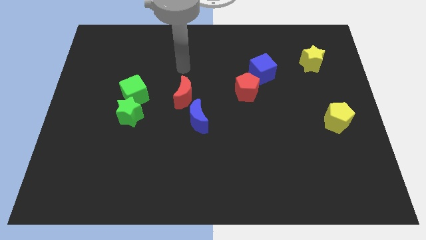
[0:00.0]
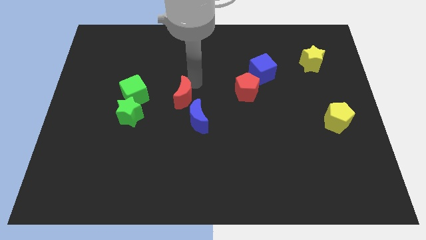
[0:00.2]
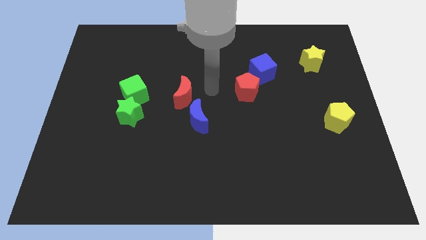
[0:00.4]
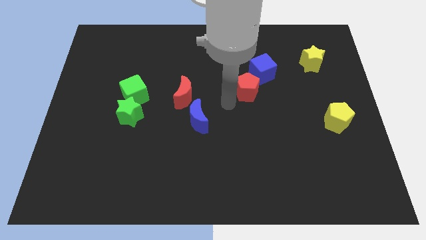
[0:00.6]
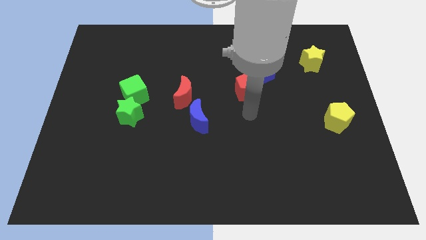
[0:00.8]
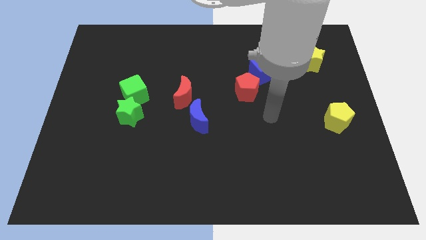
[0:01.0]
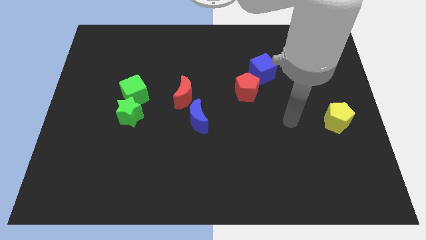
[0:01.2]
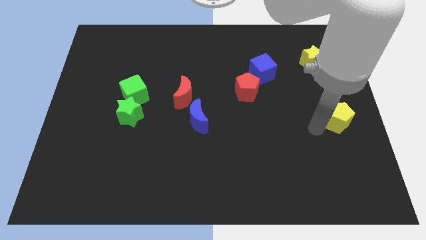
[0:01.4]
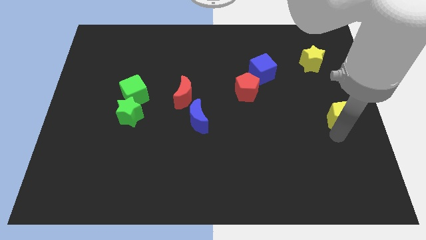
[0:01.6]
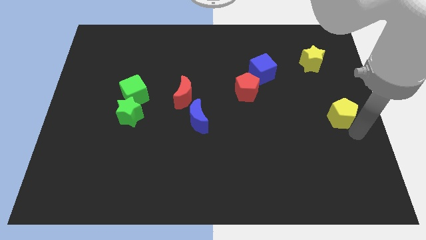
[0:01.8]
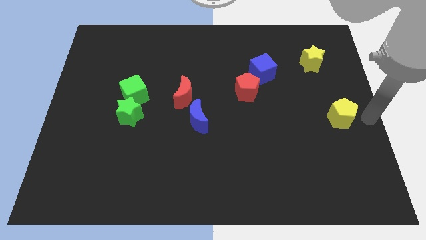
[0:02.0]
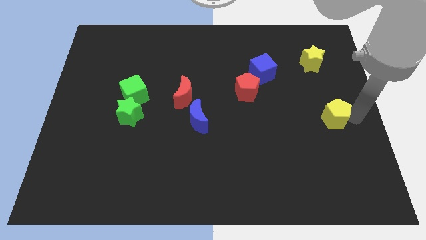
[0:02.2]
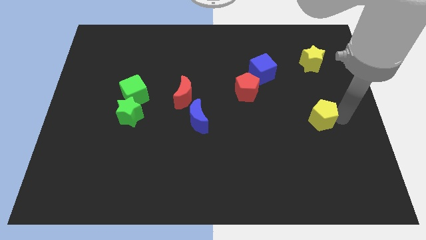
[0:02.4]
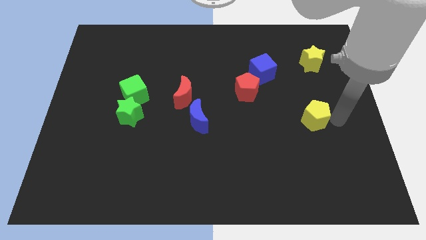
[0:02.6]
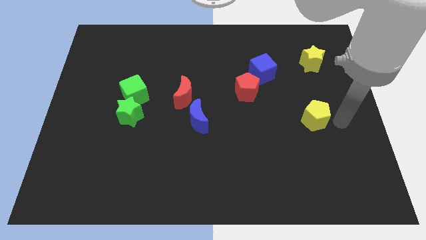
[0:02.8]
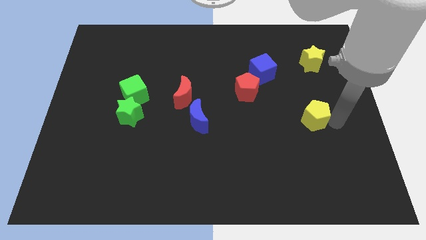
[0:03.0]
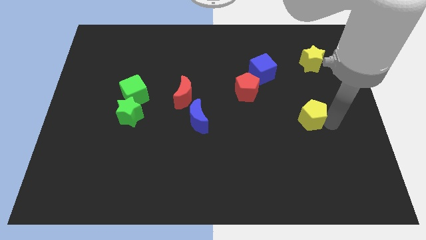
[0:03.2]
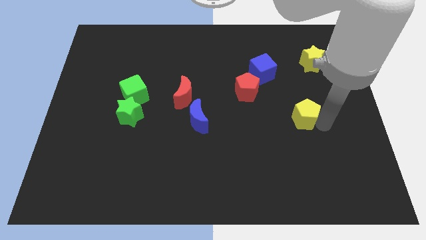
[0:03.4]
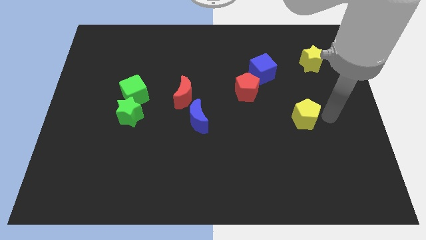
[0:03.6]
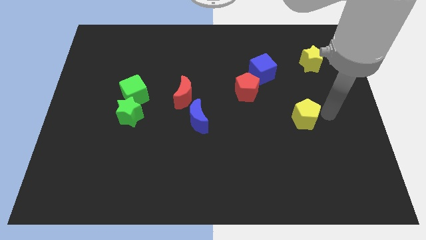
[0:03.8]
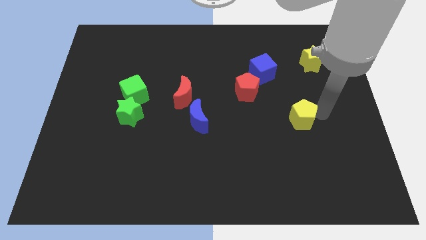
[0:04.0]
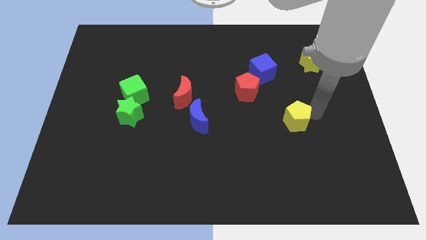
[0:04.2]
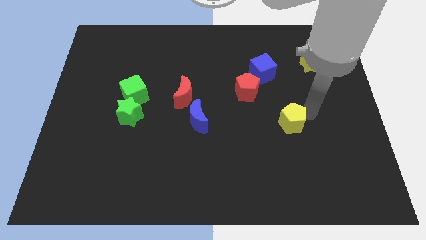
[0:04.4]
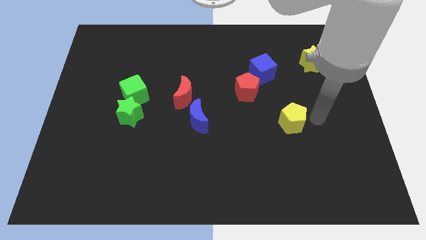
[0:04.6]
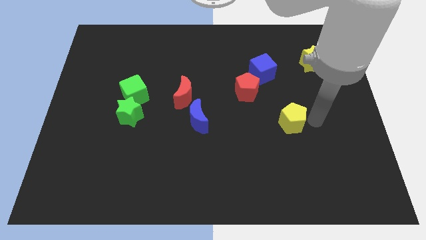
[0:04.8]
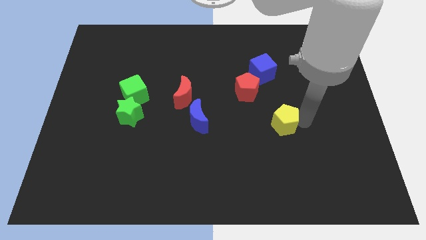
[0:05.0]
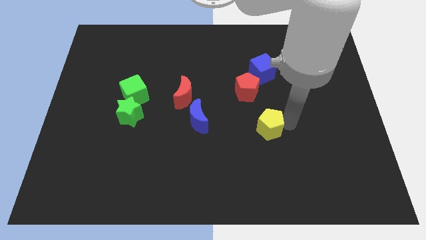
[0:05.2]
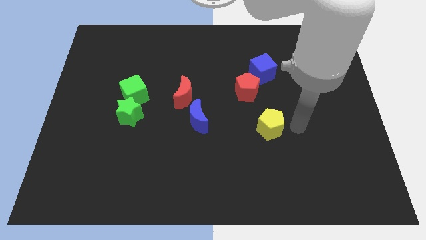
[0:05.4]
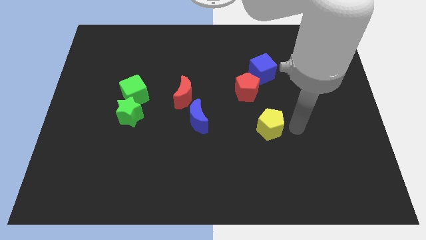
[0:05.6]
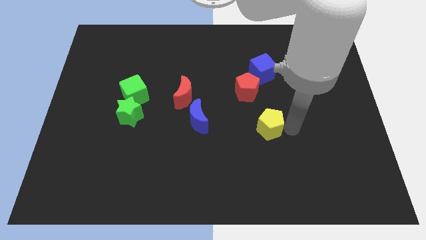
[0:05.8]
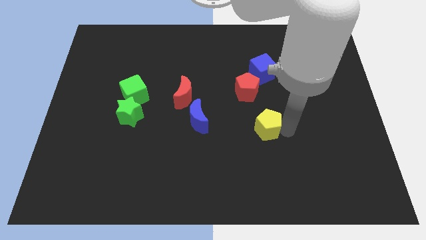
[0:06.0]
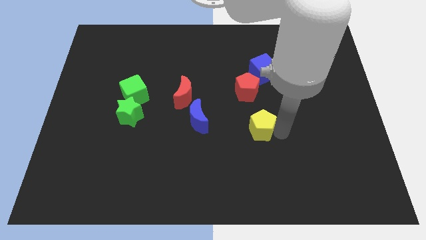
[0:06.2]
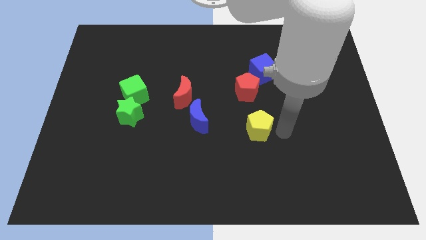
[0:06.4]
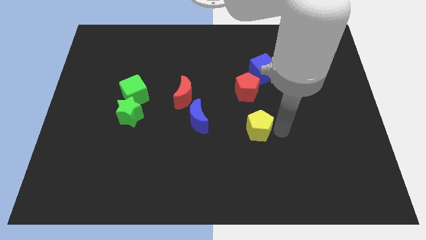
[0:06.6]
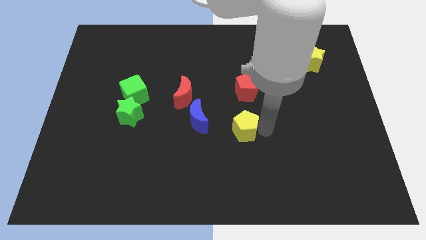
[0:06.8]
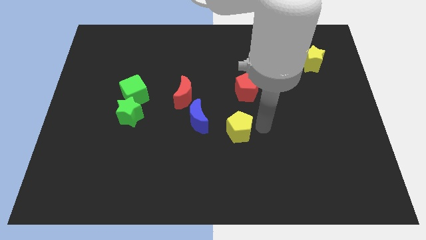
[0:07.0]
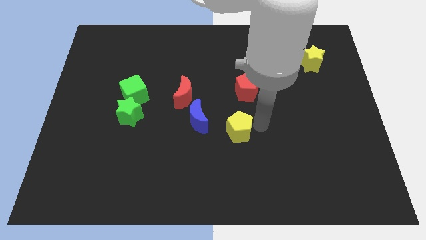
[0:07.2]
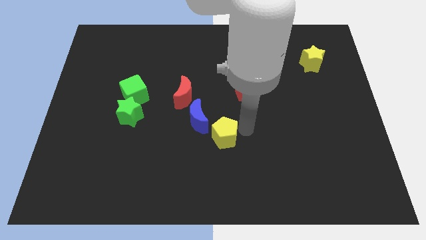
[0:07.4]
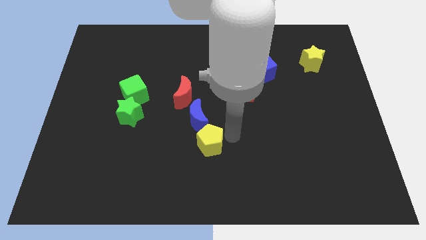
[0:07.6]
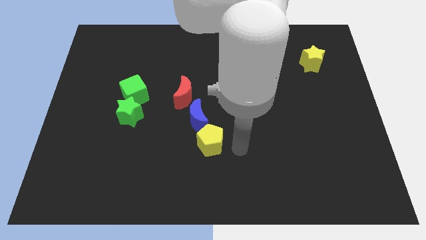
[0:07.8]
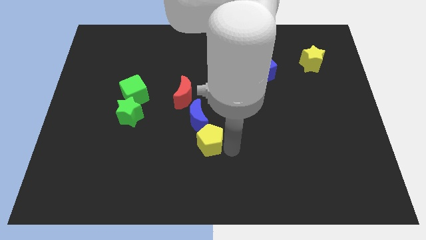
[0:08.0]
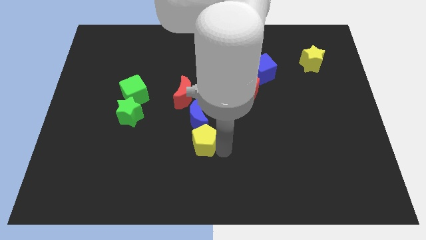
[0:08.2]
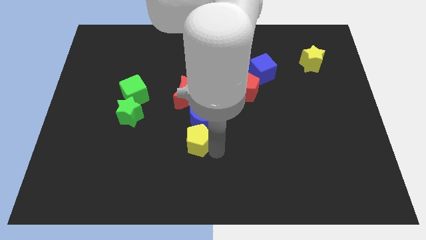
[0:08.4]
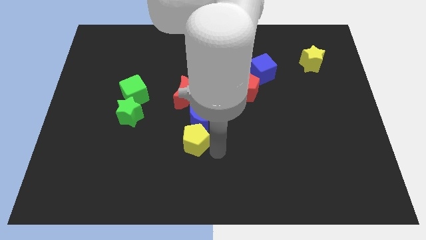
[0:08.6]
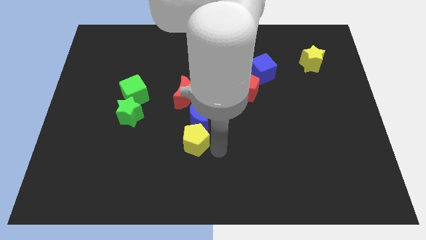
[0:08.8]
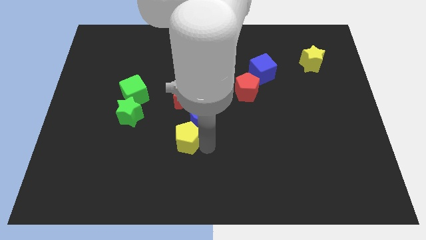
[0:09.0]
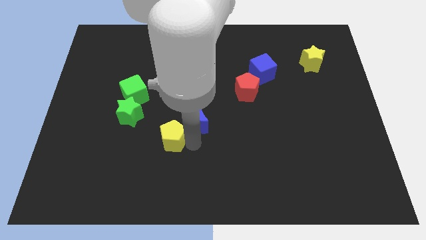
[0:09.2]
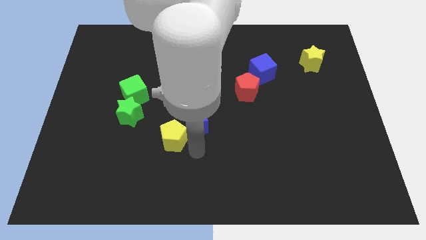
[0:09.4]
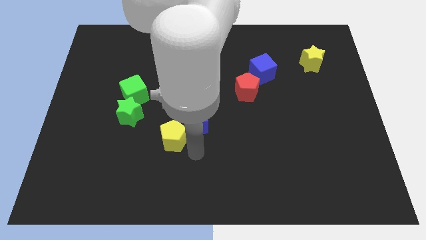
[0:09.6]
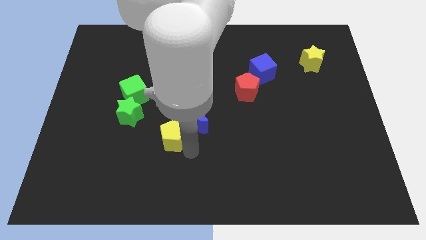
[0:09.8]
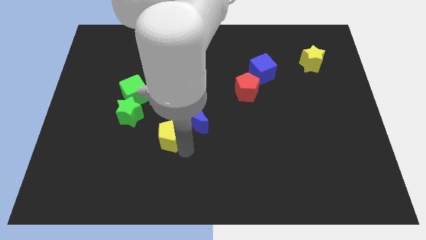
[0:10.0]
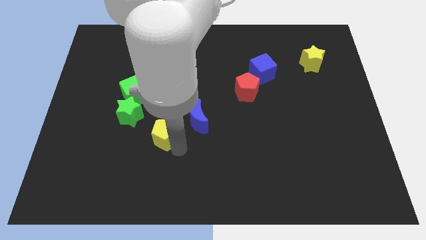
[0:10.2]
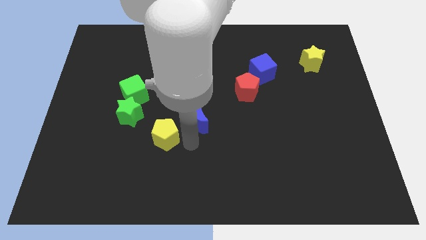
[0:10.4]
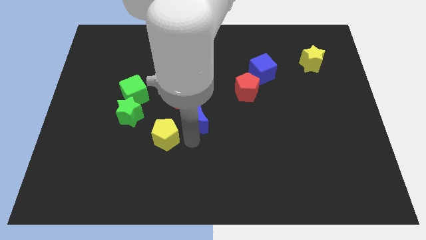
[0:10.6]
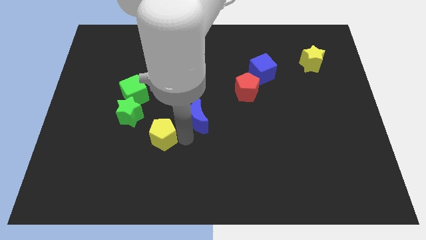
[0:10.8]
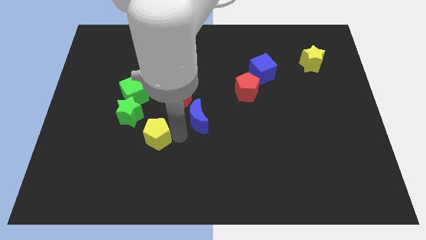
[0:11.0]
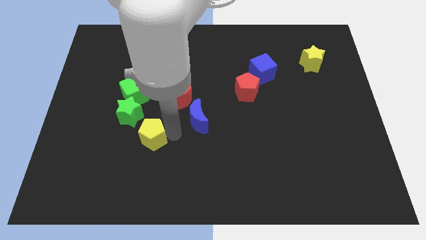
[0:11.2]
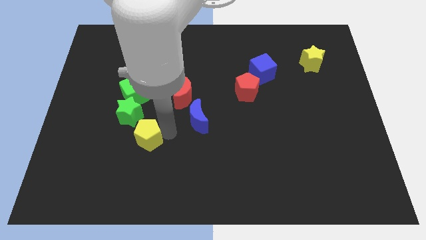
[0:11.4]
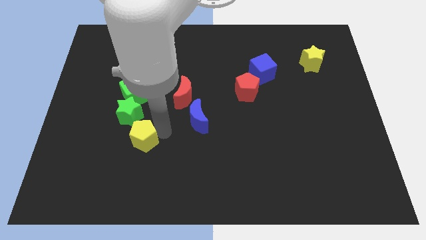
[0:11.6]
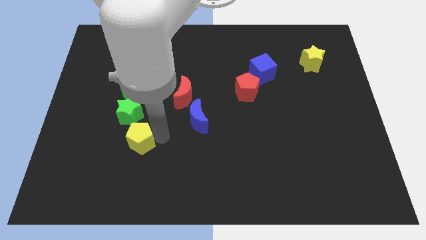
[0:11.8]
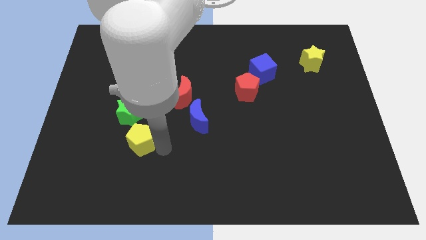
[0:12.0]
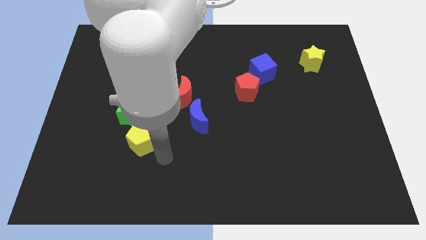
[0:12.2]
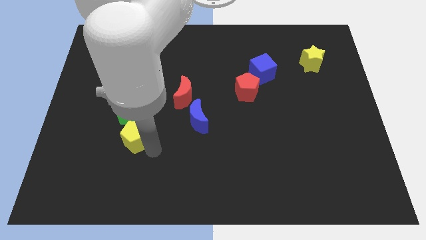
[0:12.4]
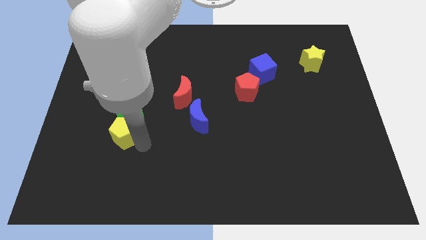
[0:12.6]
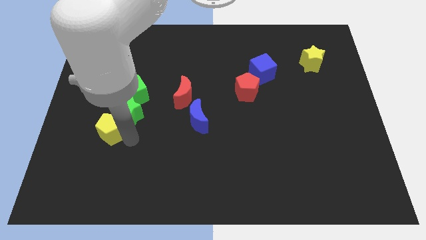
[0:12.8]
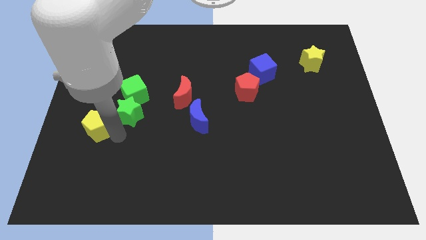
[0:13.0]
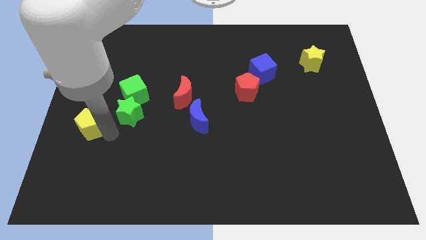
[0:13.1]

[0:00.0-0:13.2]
put the yellow pentagon to the left side
